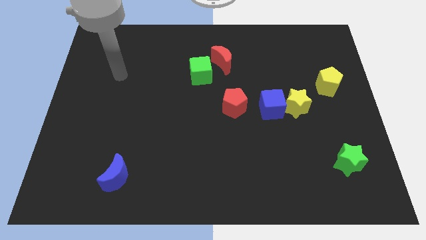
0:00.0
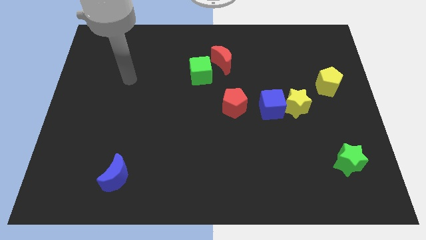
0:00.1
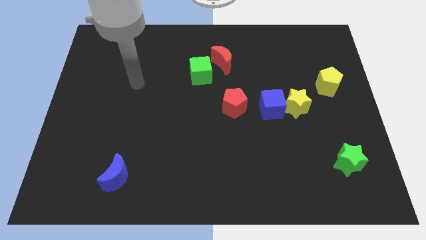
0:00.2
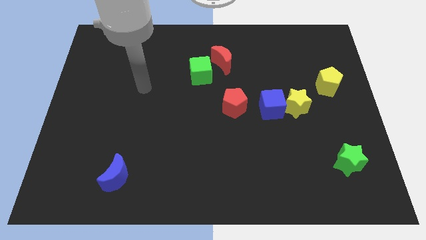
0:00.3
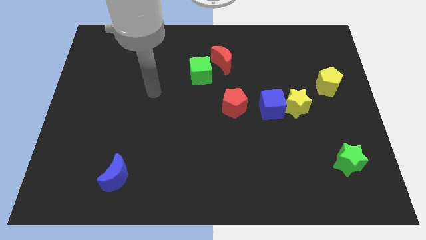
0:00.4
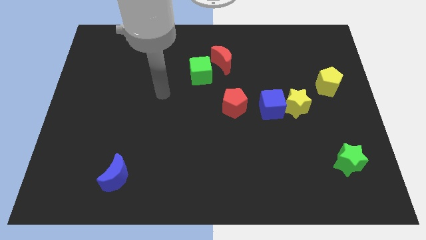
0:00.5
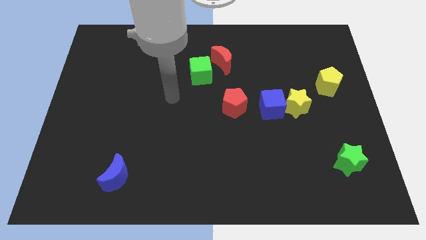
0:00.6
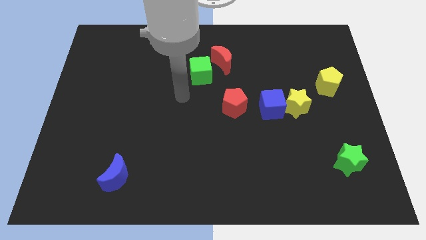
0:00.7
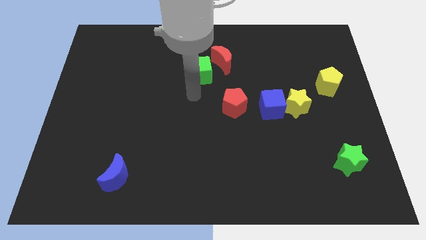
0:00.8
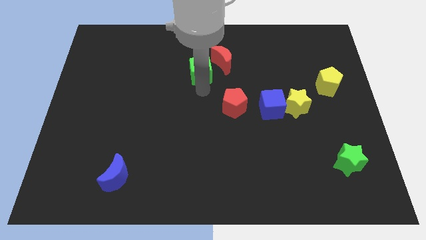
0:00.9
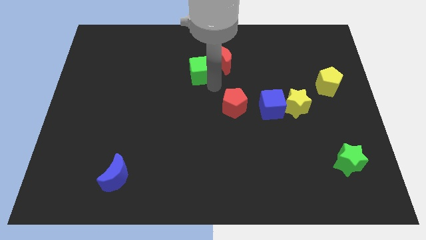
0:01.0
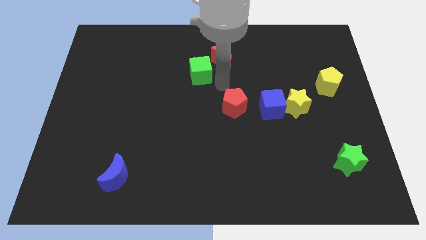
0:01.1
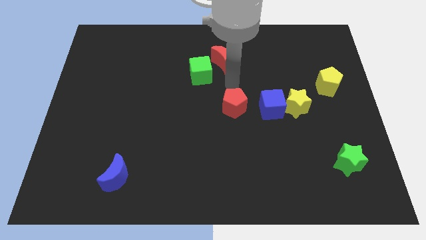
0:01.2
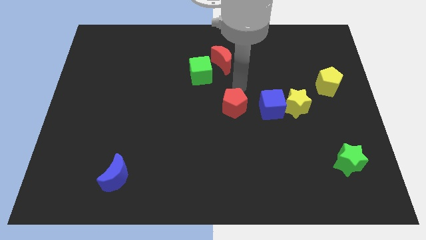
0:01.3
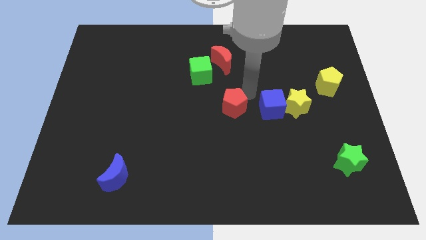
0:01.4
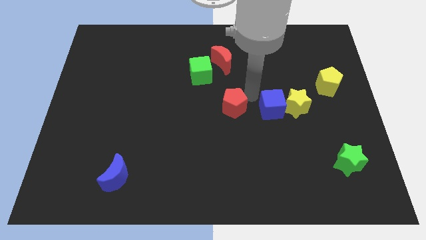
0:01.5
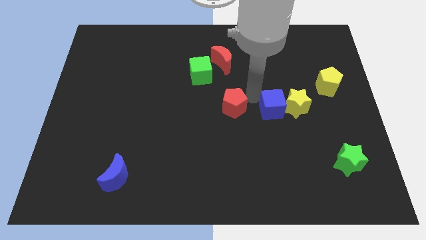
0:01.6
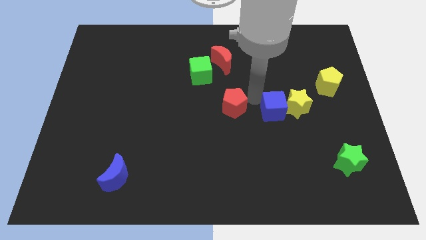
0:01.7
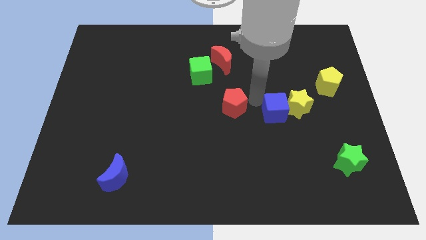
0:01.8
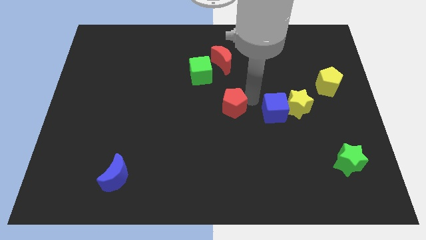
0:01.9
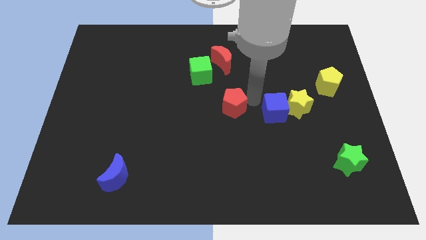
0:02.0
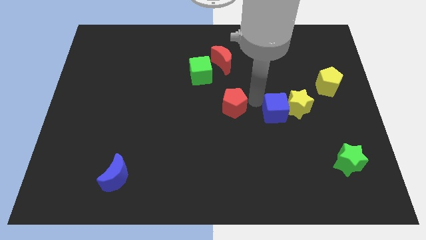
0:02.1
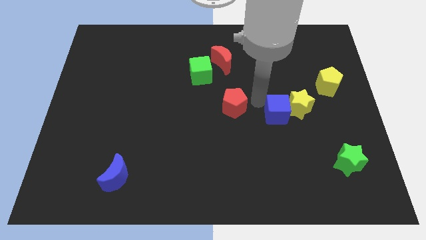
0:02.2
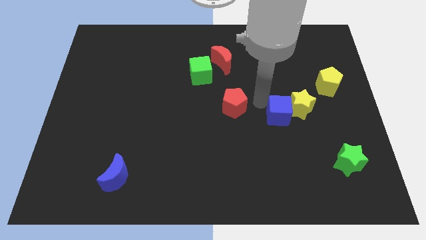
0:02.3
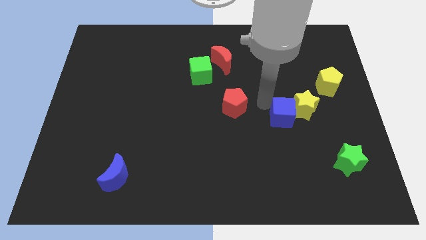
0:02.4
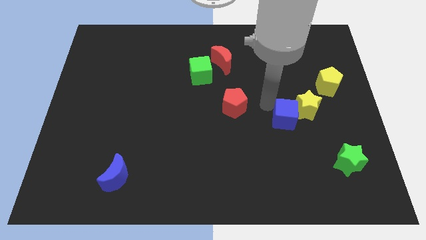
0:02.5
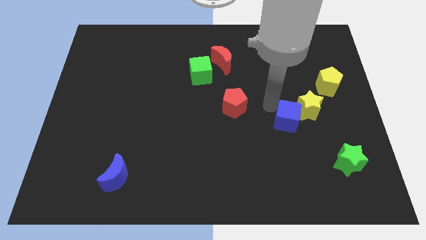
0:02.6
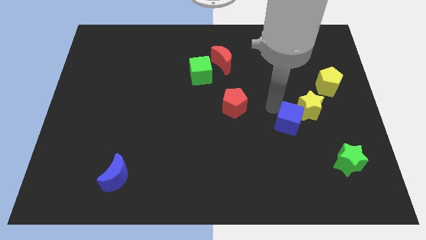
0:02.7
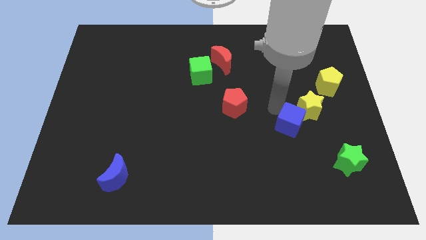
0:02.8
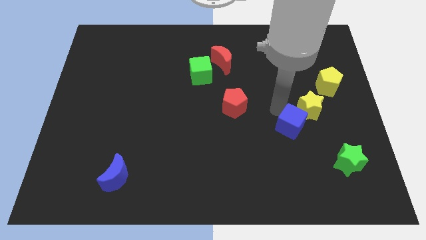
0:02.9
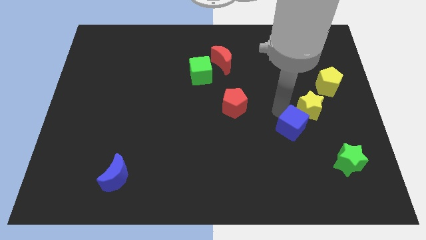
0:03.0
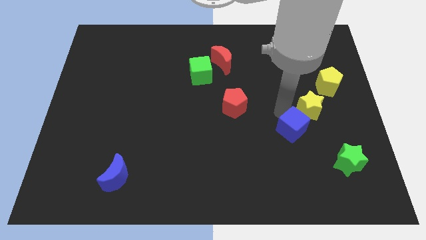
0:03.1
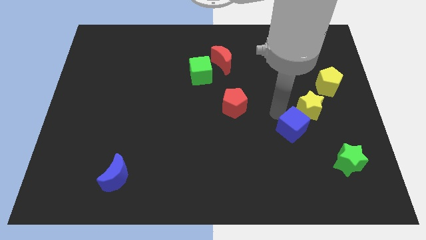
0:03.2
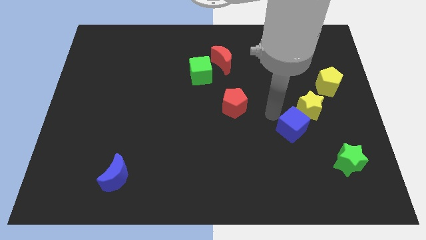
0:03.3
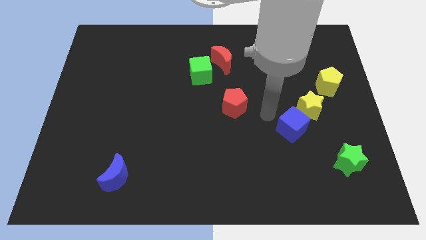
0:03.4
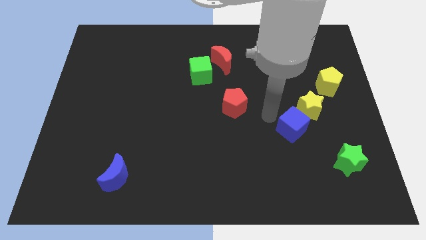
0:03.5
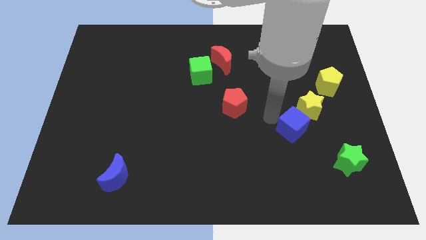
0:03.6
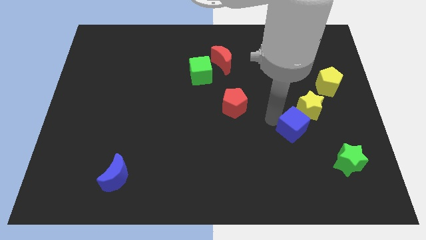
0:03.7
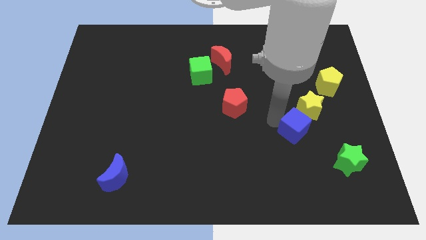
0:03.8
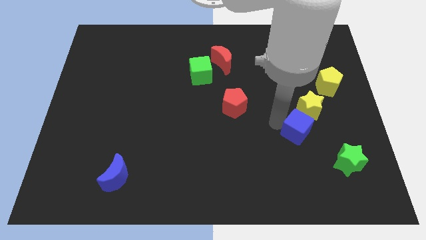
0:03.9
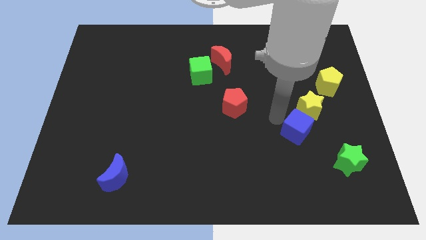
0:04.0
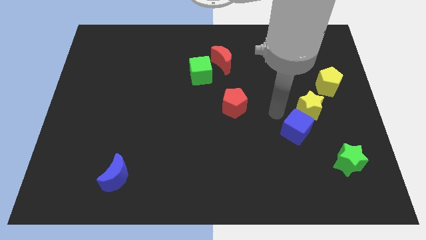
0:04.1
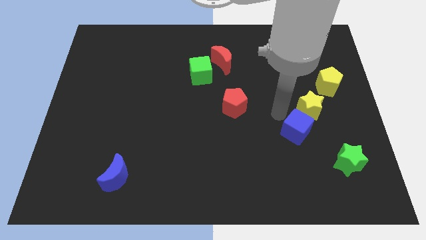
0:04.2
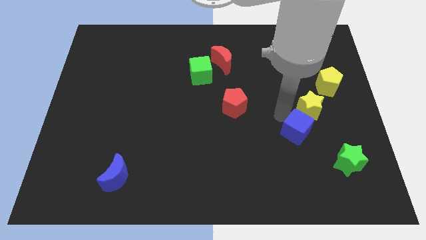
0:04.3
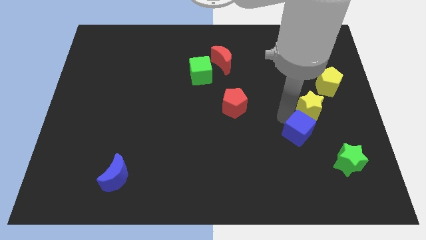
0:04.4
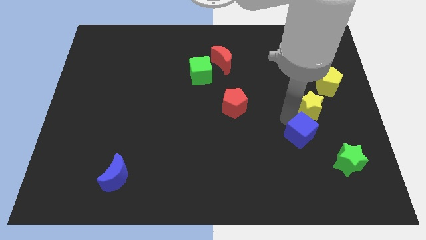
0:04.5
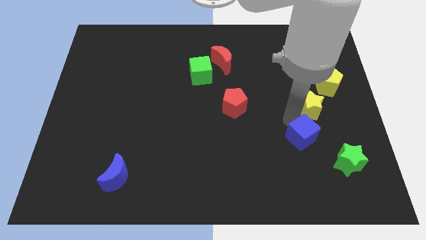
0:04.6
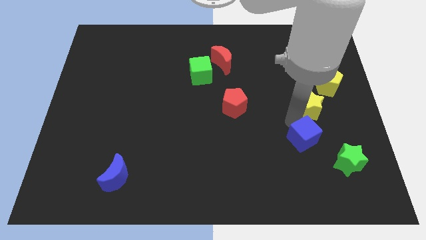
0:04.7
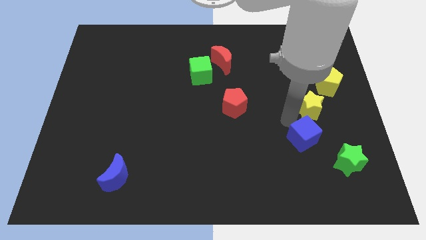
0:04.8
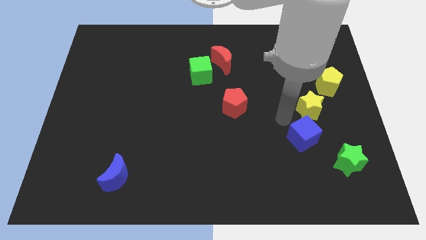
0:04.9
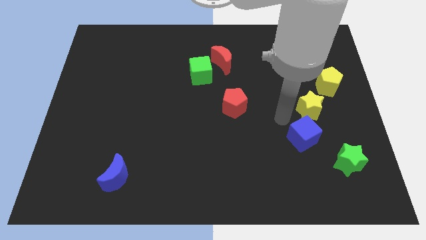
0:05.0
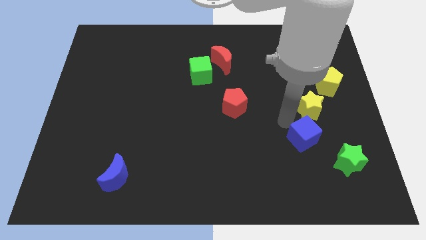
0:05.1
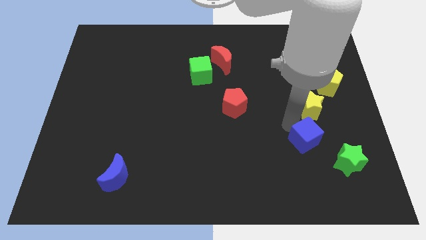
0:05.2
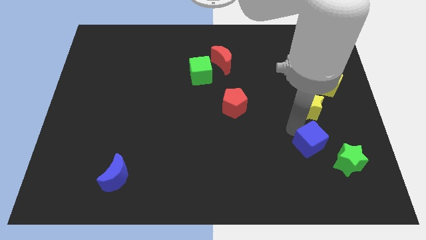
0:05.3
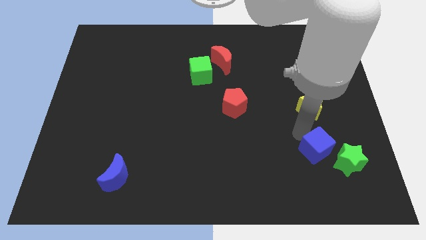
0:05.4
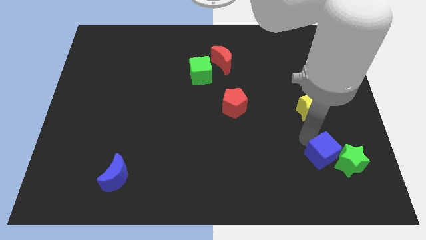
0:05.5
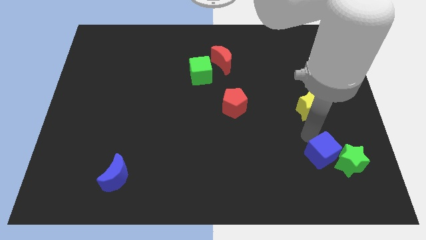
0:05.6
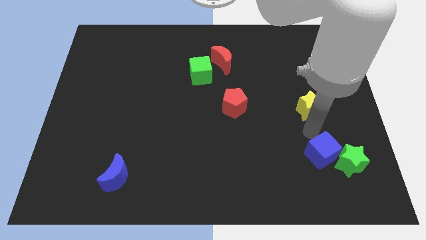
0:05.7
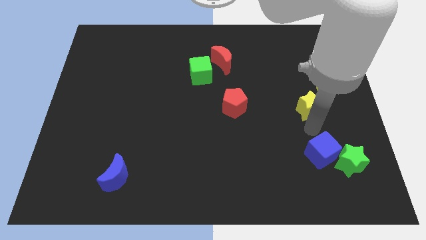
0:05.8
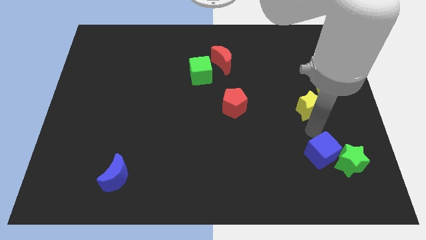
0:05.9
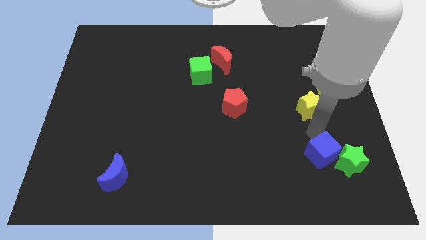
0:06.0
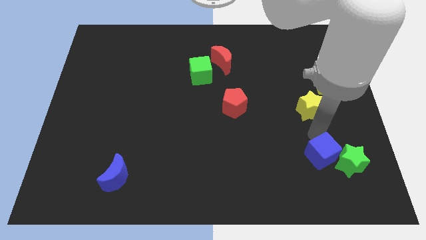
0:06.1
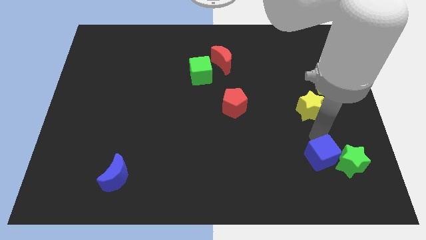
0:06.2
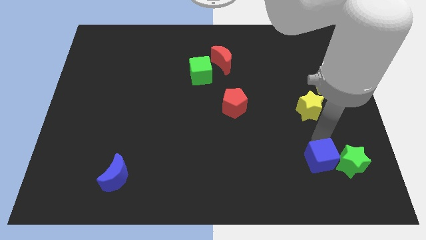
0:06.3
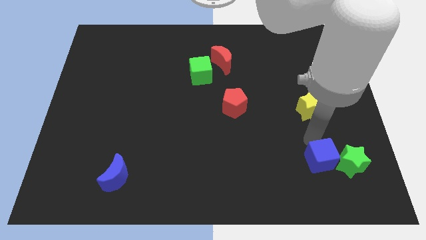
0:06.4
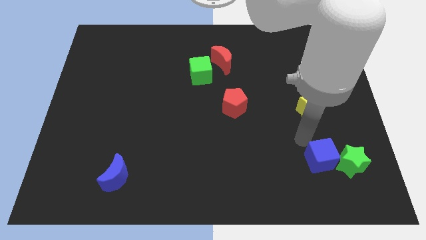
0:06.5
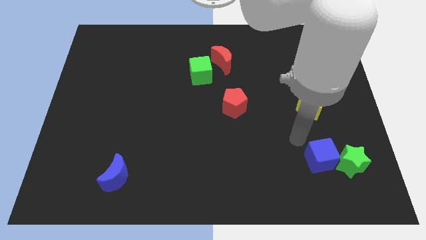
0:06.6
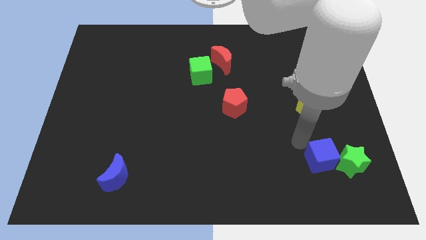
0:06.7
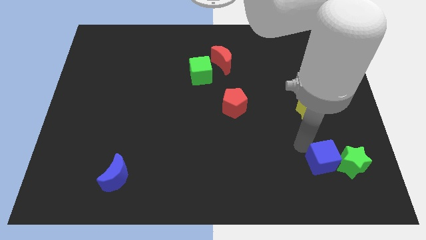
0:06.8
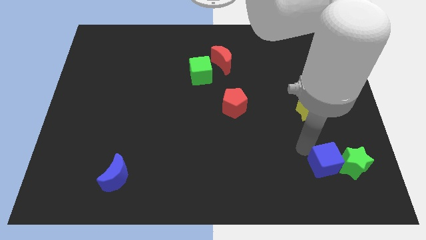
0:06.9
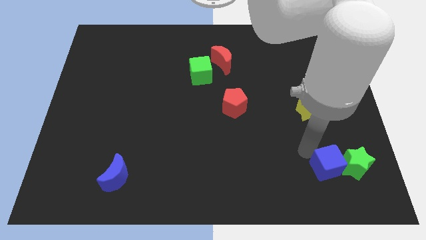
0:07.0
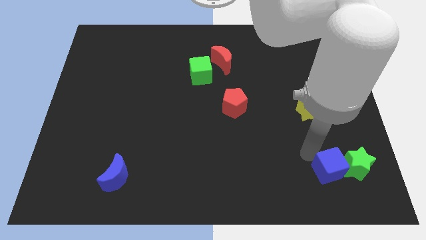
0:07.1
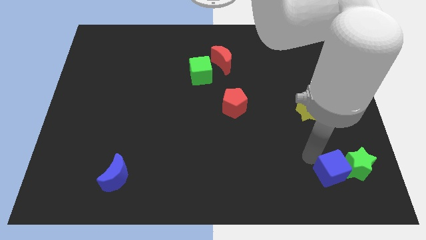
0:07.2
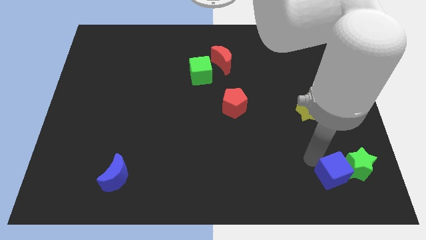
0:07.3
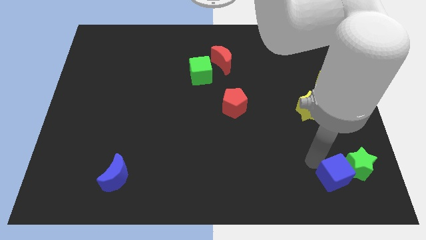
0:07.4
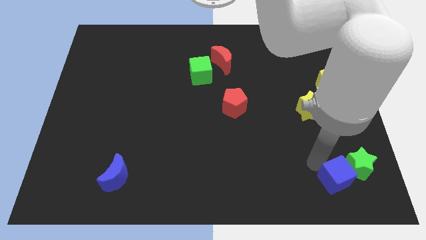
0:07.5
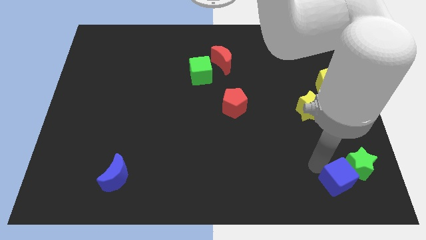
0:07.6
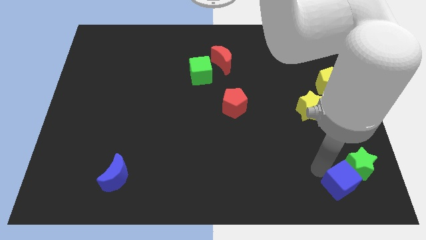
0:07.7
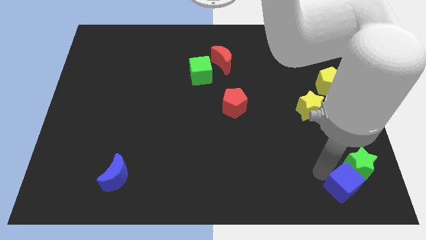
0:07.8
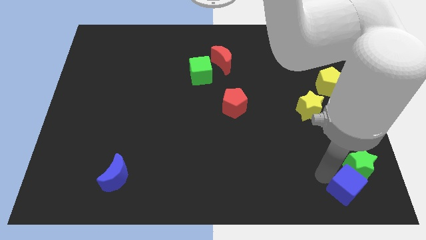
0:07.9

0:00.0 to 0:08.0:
slide the blue cube to the bottom right corner
